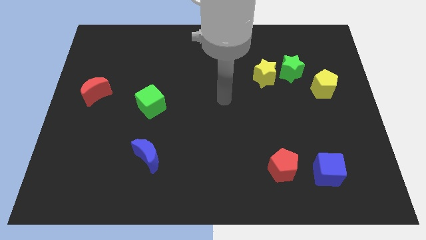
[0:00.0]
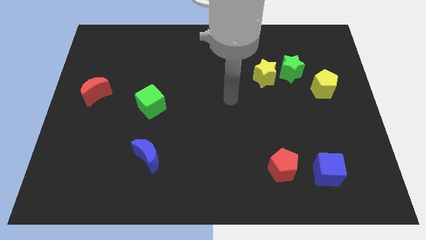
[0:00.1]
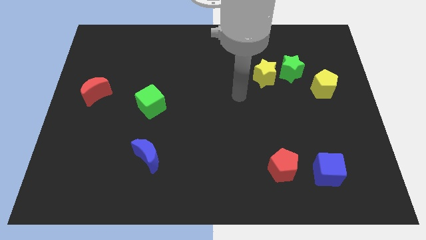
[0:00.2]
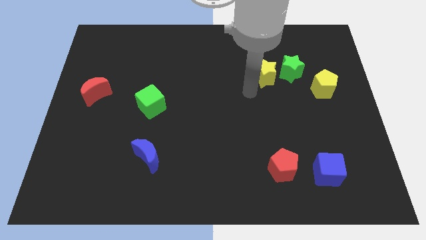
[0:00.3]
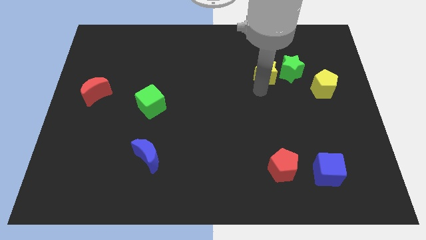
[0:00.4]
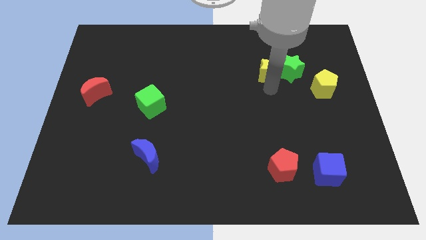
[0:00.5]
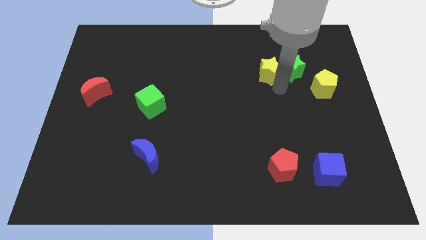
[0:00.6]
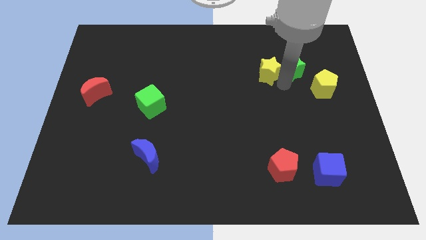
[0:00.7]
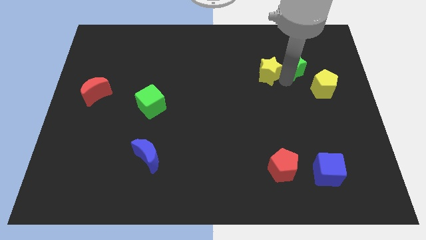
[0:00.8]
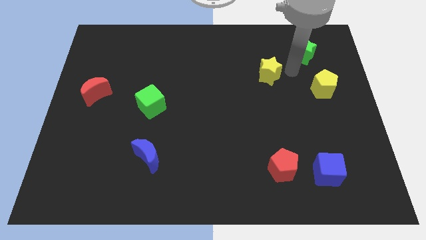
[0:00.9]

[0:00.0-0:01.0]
separate the yellow star from the green star

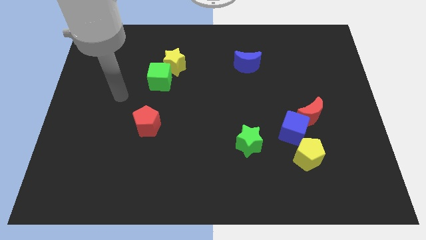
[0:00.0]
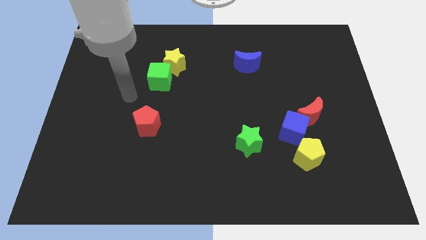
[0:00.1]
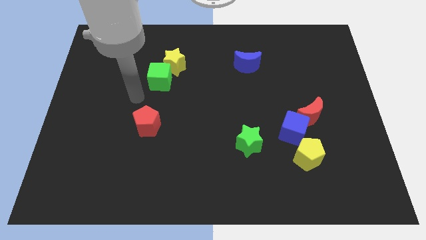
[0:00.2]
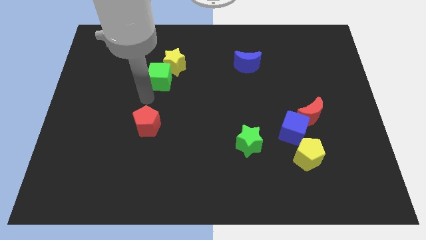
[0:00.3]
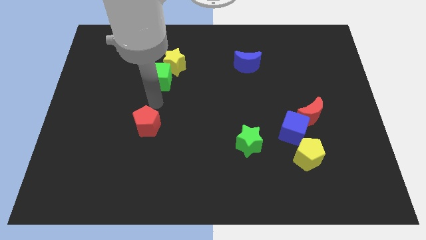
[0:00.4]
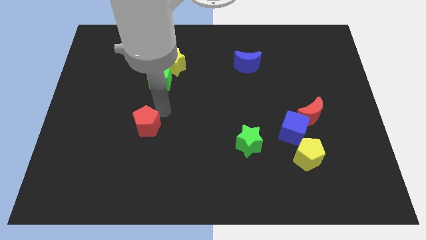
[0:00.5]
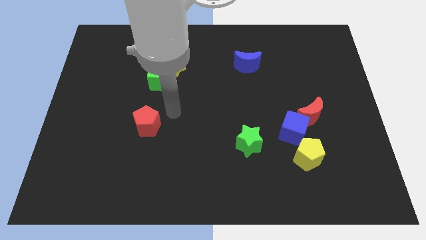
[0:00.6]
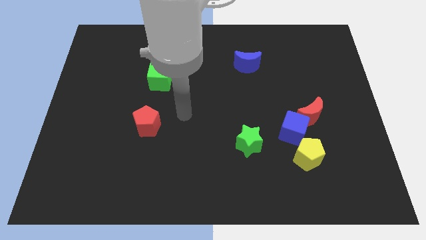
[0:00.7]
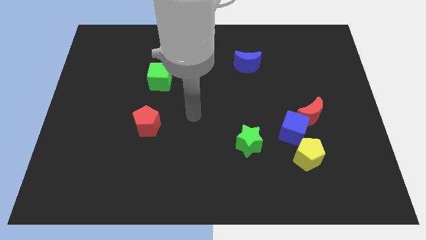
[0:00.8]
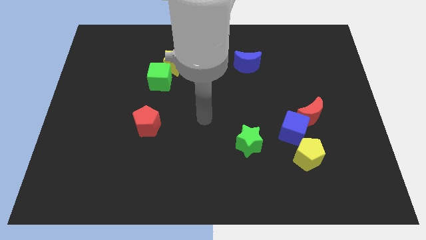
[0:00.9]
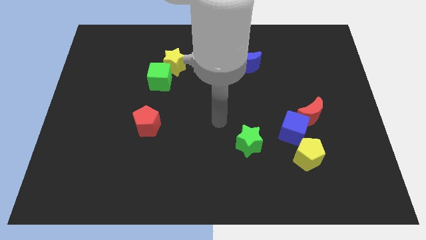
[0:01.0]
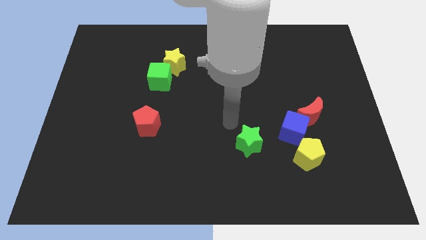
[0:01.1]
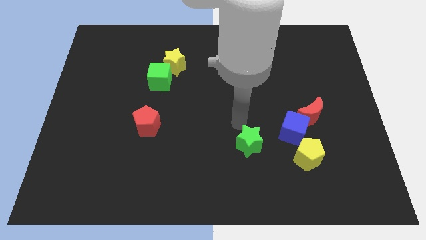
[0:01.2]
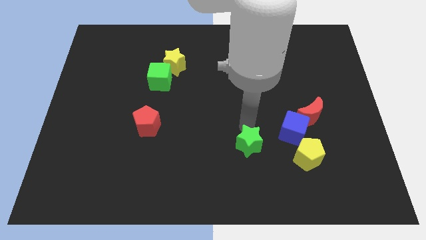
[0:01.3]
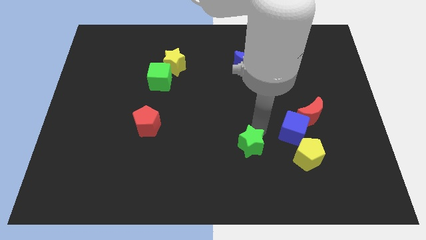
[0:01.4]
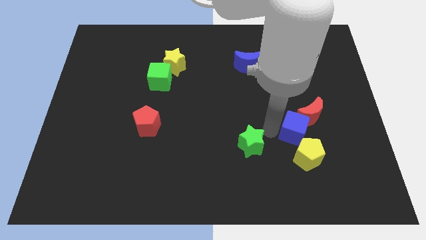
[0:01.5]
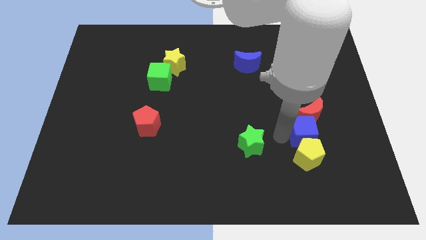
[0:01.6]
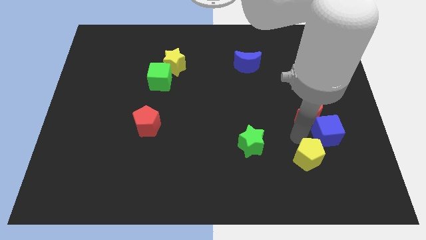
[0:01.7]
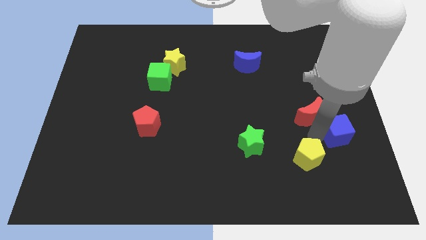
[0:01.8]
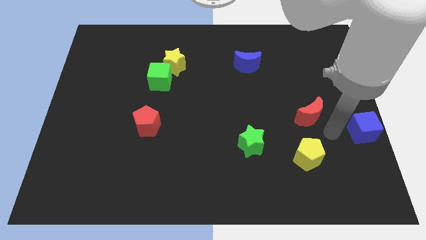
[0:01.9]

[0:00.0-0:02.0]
move the red moon away from the blue cube

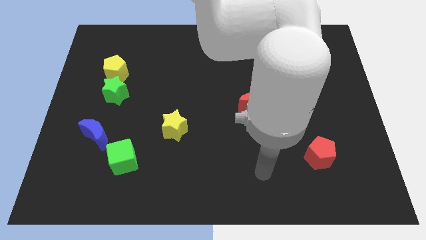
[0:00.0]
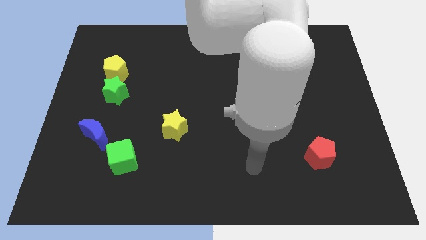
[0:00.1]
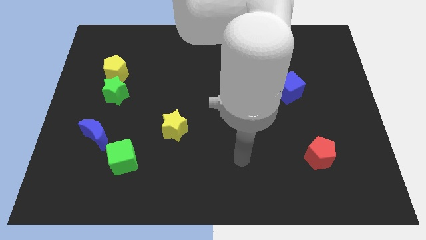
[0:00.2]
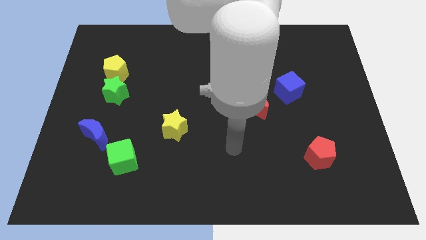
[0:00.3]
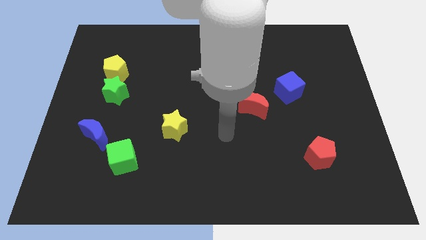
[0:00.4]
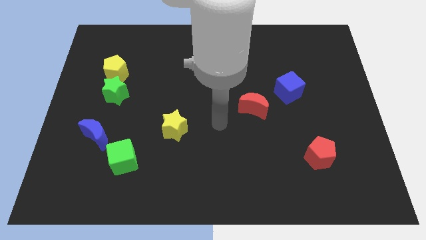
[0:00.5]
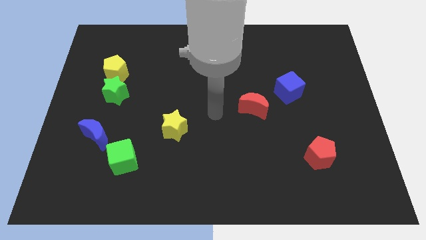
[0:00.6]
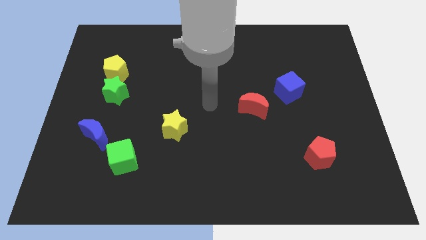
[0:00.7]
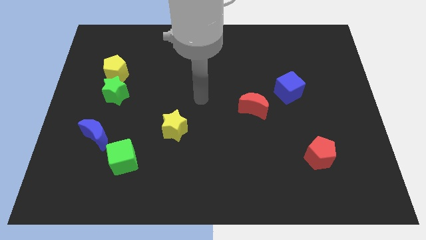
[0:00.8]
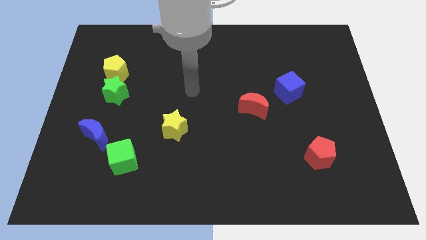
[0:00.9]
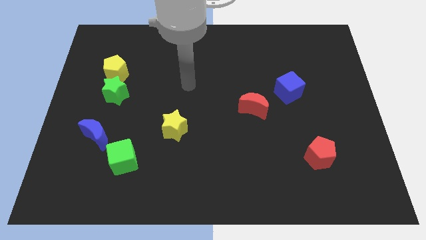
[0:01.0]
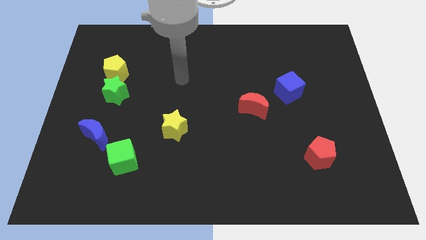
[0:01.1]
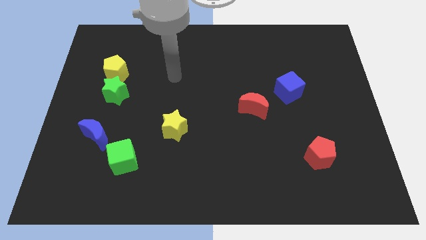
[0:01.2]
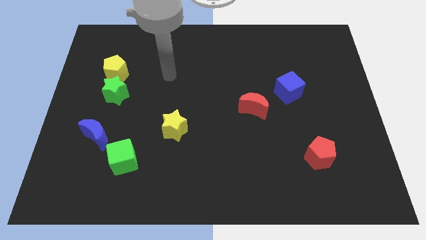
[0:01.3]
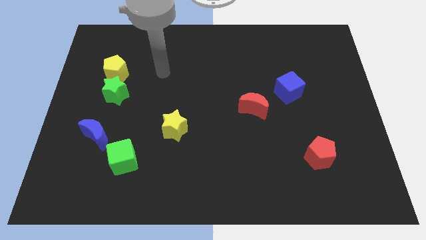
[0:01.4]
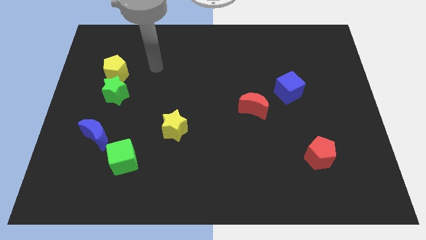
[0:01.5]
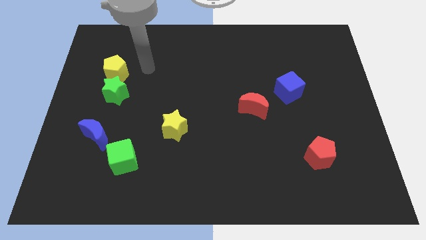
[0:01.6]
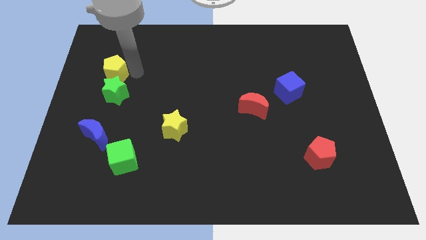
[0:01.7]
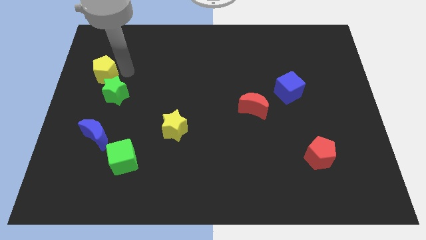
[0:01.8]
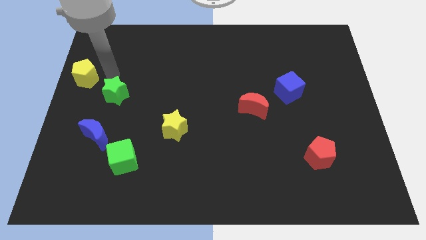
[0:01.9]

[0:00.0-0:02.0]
separate the green star from the yellow pentagon

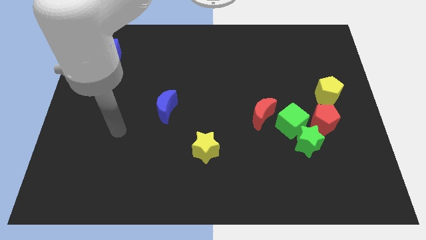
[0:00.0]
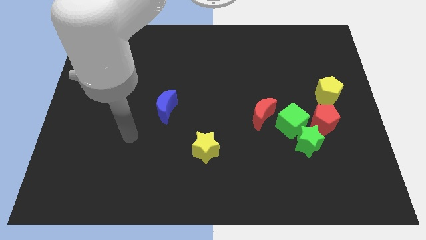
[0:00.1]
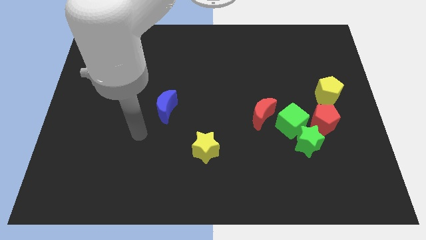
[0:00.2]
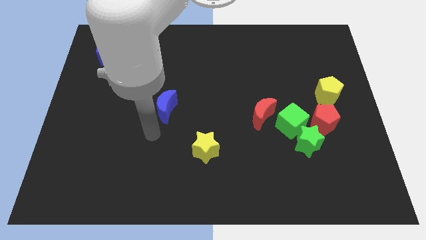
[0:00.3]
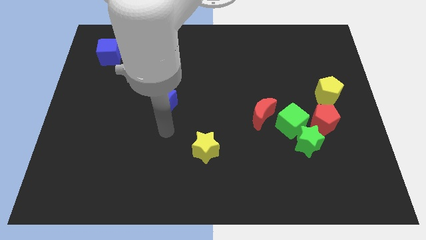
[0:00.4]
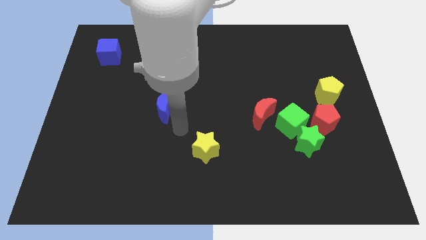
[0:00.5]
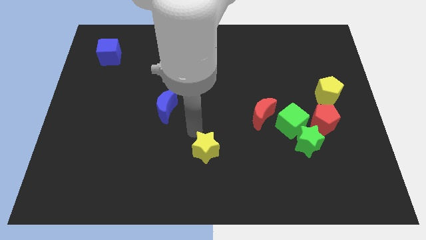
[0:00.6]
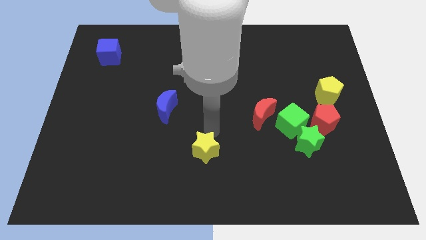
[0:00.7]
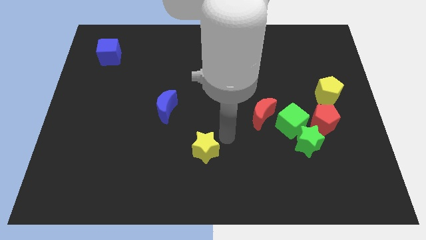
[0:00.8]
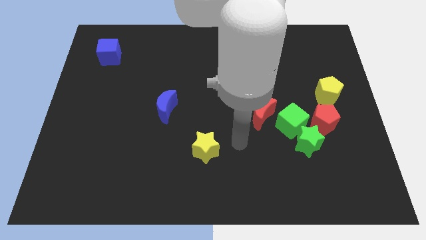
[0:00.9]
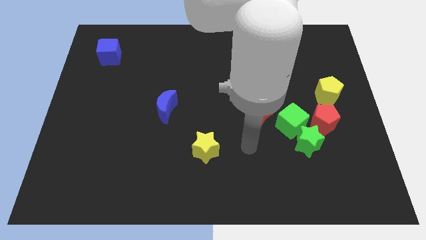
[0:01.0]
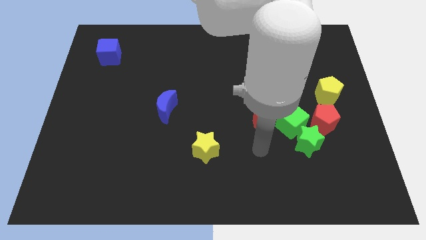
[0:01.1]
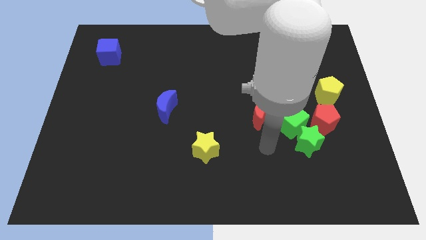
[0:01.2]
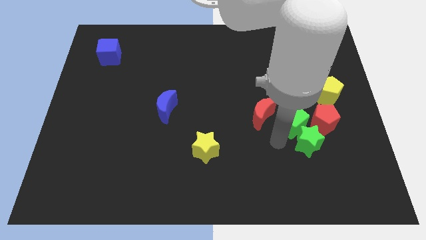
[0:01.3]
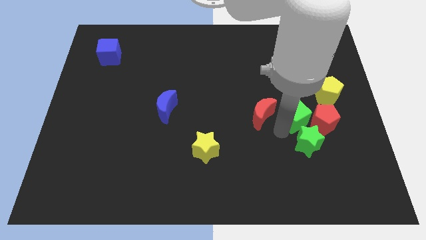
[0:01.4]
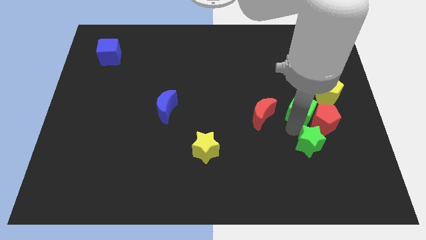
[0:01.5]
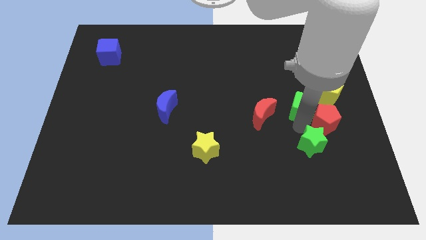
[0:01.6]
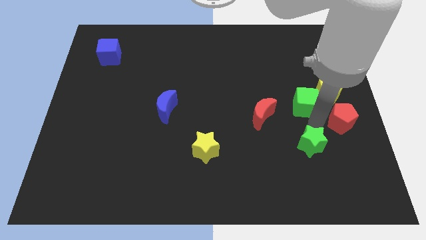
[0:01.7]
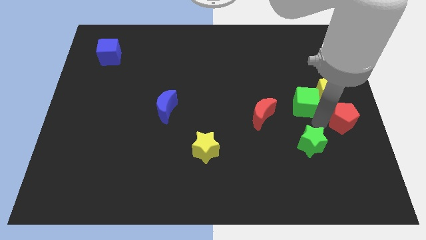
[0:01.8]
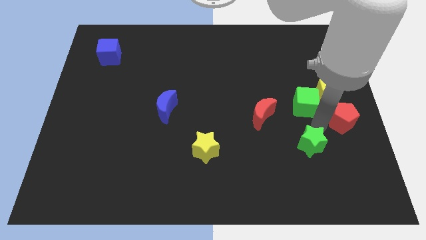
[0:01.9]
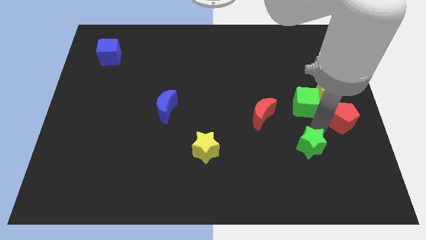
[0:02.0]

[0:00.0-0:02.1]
pull the green star apart from the green cube and red pentagon

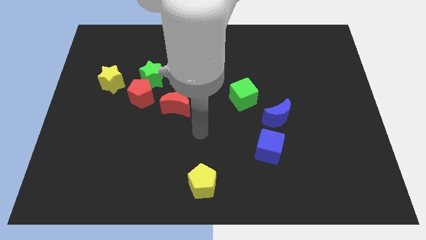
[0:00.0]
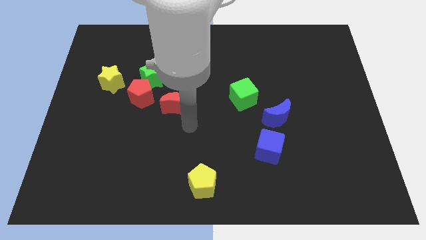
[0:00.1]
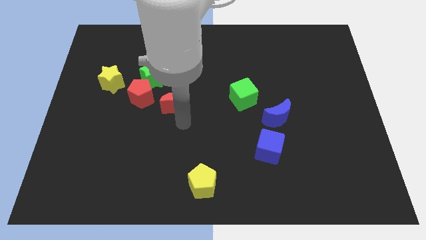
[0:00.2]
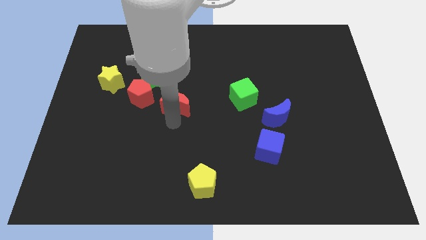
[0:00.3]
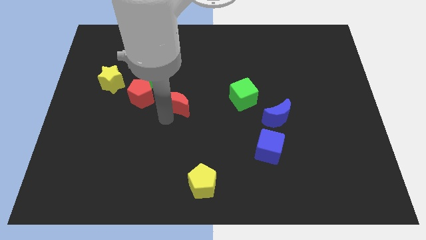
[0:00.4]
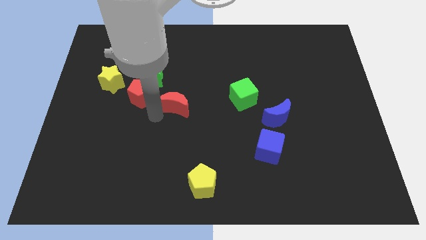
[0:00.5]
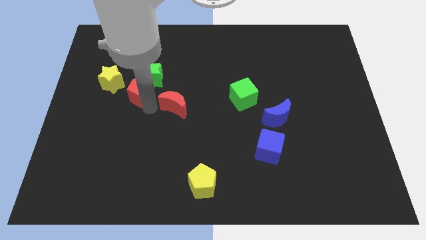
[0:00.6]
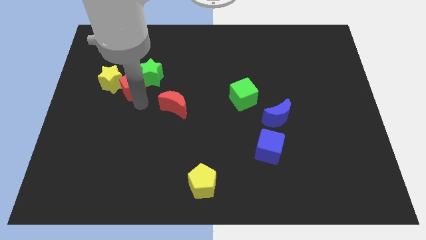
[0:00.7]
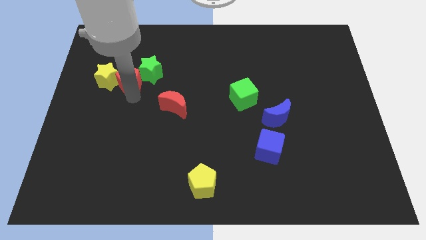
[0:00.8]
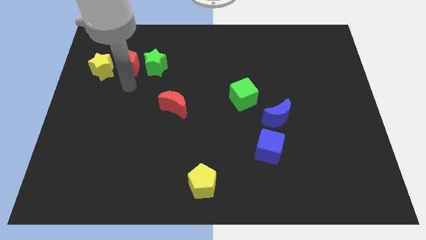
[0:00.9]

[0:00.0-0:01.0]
pull the green star apart from the red pentagon and yellow star

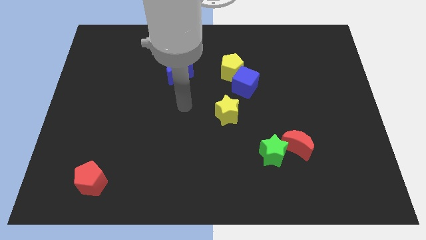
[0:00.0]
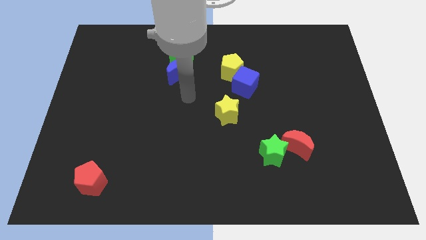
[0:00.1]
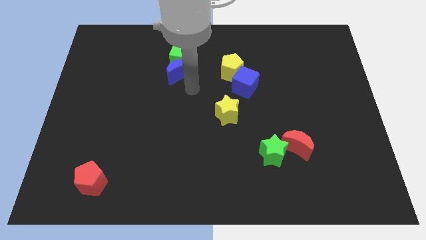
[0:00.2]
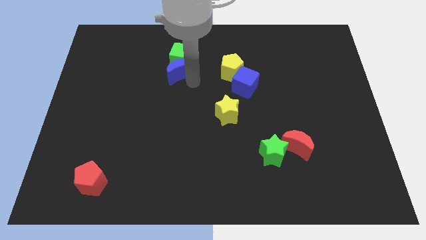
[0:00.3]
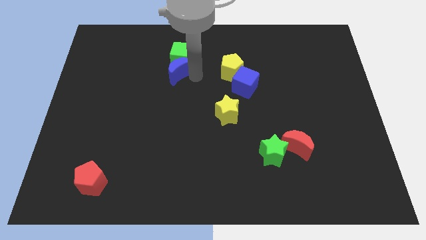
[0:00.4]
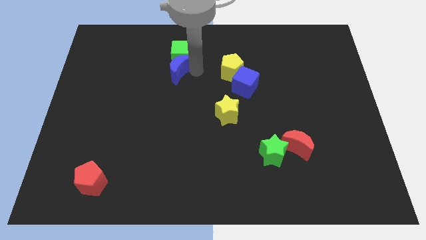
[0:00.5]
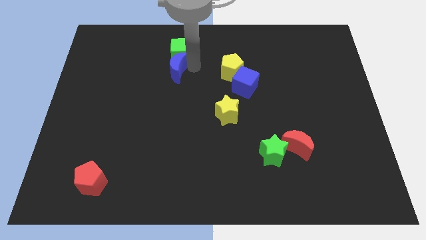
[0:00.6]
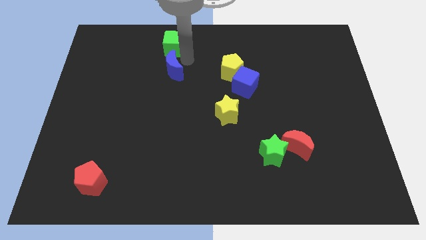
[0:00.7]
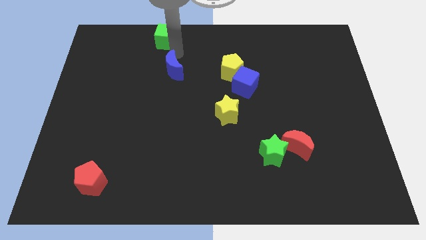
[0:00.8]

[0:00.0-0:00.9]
pull the blue moon apart from the green cube

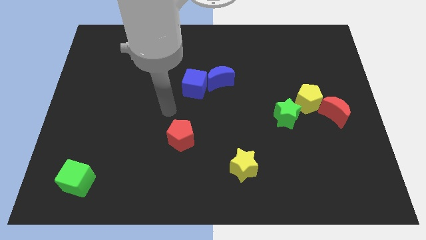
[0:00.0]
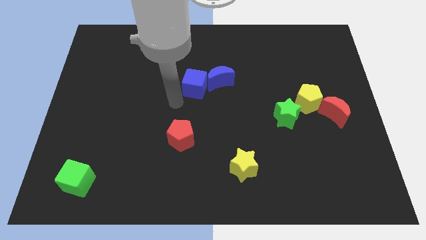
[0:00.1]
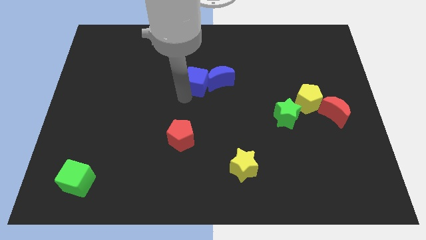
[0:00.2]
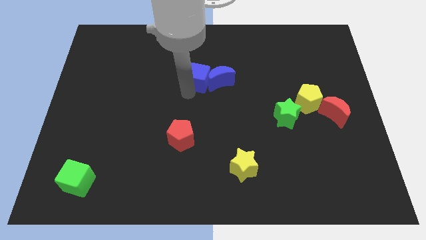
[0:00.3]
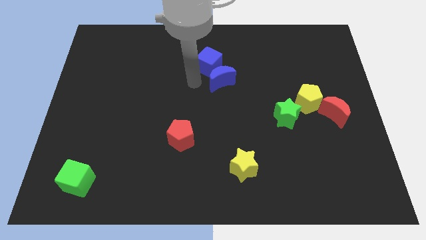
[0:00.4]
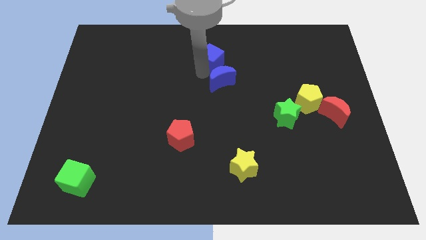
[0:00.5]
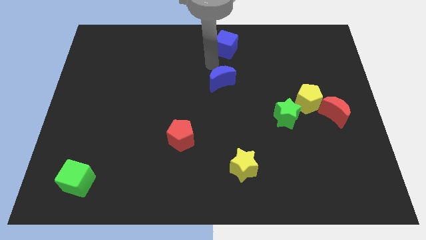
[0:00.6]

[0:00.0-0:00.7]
separate the blue moon from the blue cube
